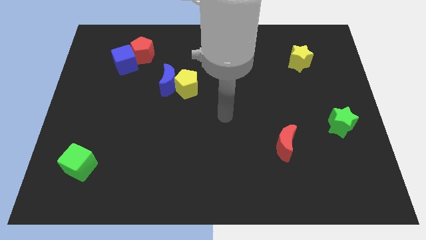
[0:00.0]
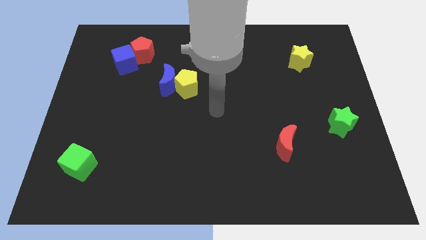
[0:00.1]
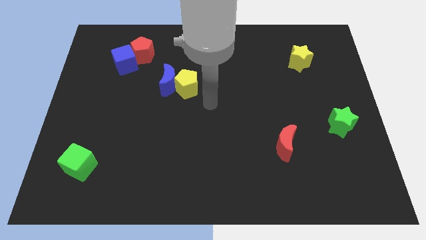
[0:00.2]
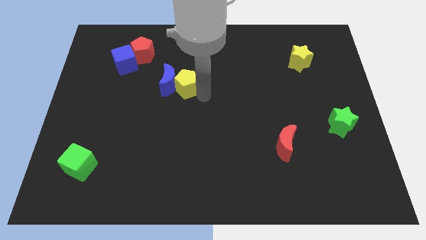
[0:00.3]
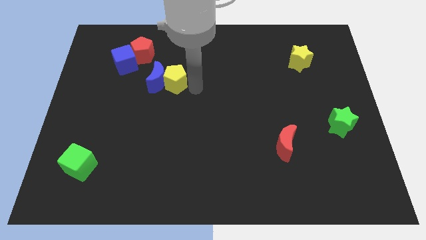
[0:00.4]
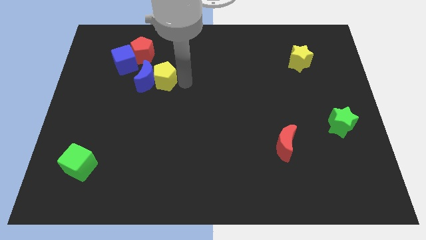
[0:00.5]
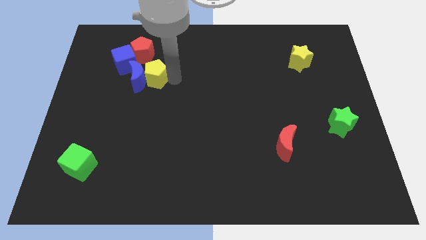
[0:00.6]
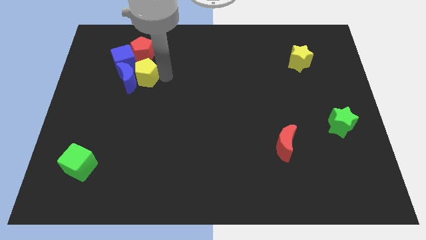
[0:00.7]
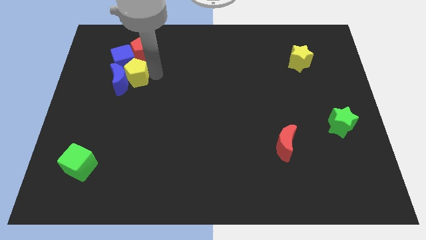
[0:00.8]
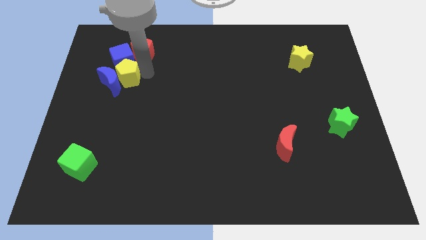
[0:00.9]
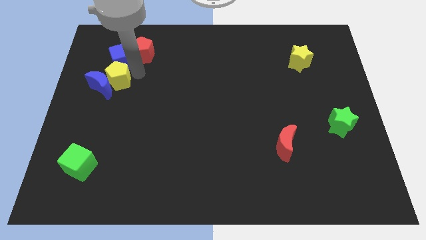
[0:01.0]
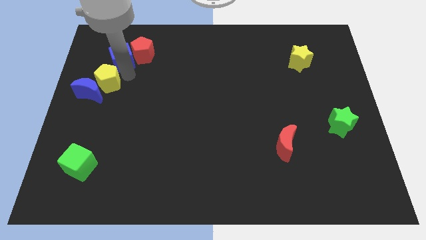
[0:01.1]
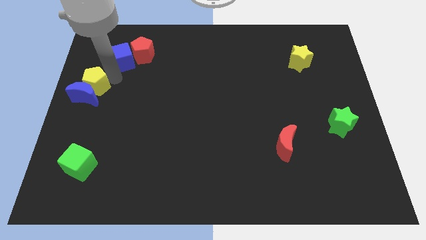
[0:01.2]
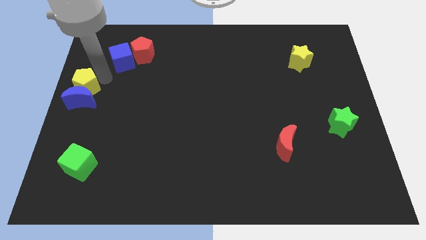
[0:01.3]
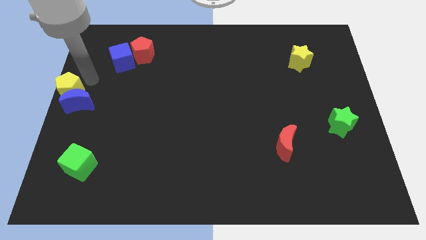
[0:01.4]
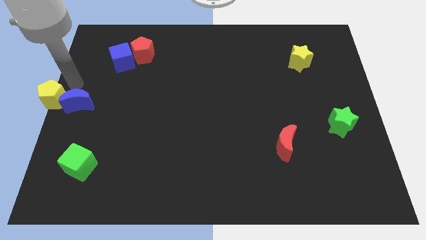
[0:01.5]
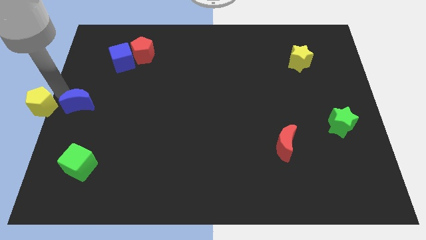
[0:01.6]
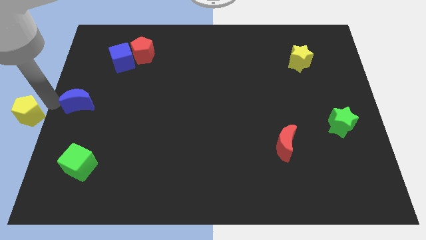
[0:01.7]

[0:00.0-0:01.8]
pull the blue moon apart from the yellow pentagon

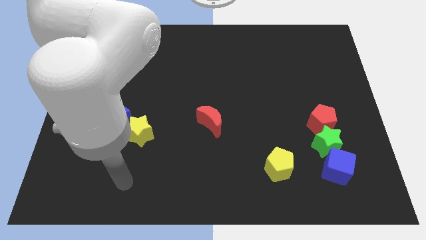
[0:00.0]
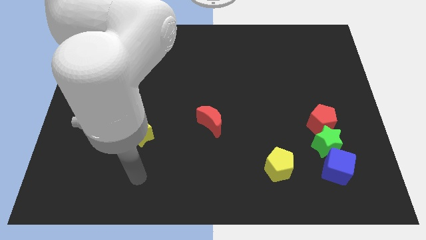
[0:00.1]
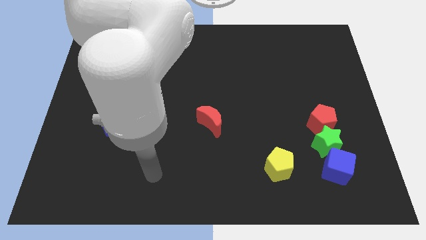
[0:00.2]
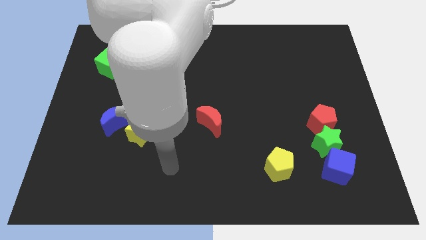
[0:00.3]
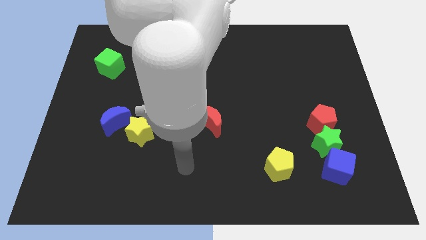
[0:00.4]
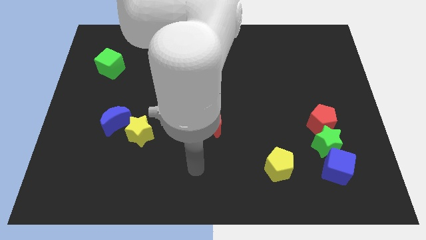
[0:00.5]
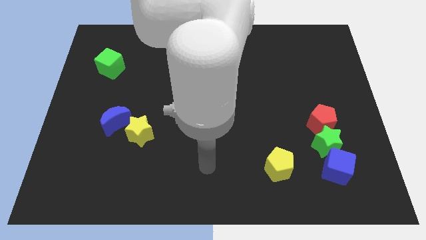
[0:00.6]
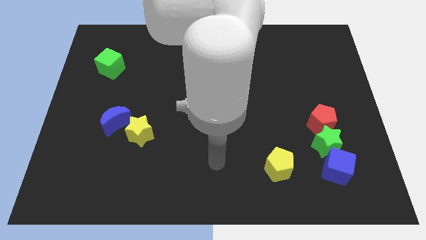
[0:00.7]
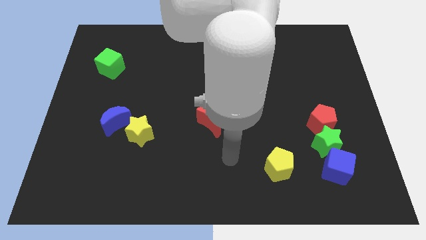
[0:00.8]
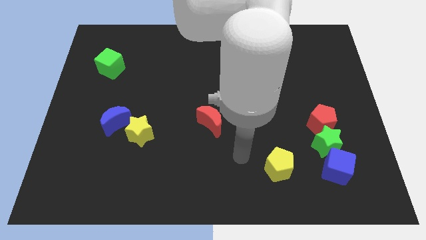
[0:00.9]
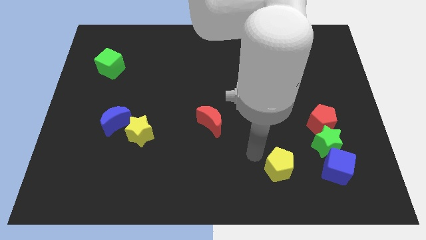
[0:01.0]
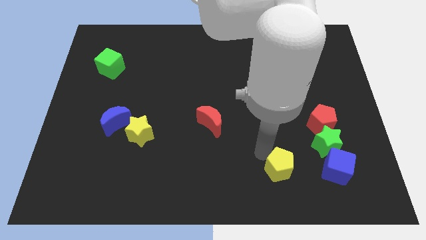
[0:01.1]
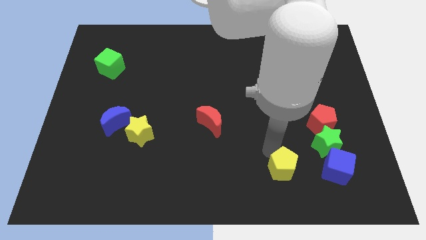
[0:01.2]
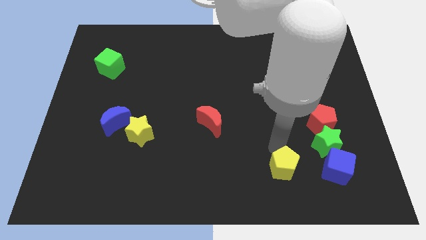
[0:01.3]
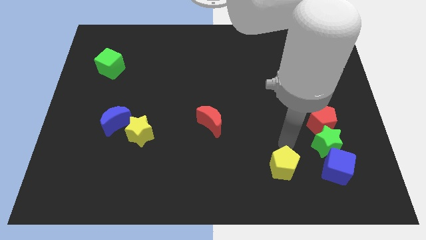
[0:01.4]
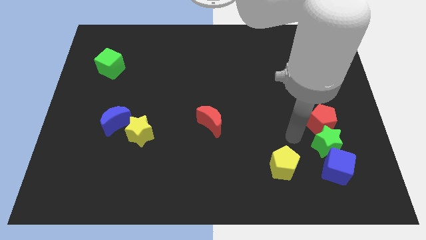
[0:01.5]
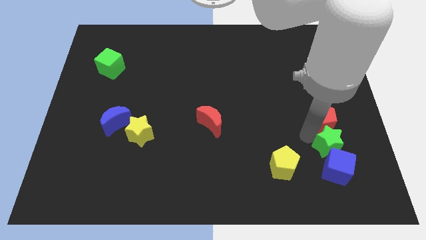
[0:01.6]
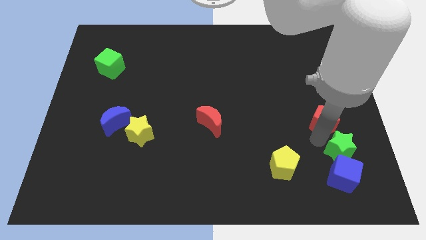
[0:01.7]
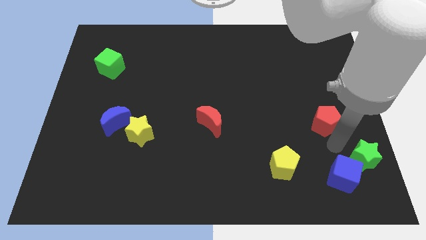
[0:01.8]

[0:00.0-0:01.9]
pull the red pentagon apart from the green star

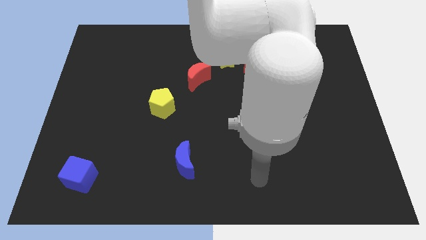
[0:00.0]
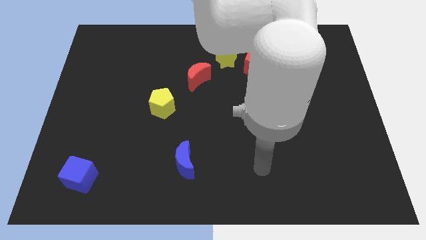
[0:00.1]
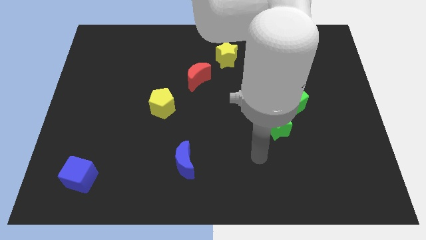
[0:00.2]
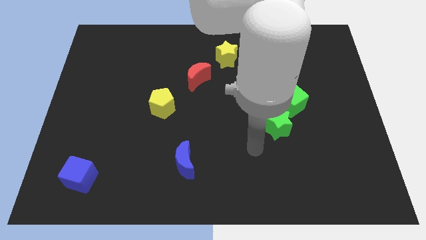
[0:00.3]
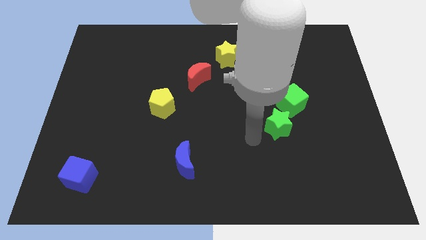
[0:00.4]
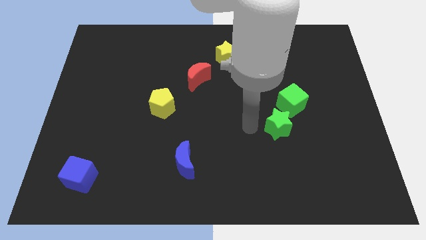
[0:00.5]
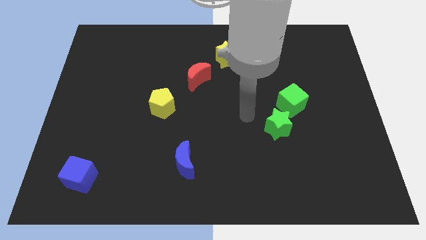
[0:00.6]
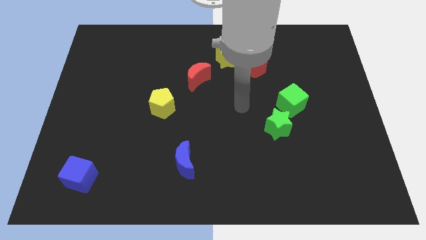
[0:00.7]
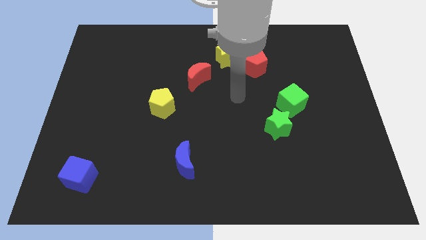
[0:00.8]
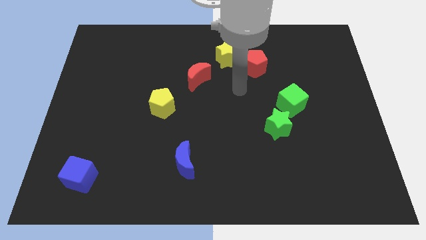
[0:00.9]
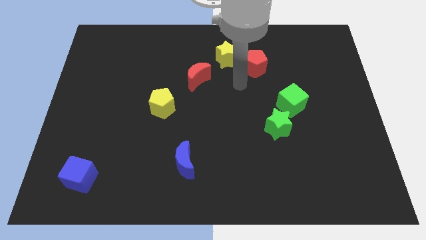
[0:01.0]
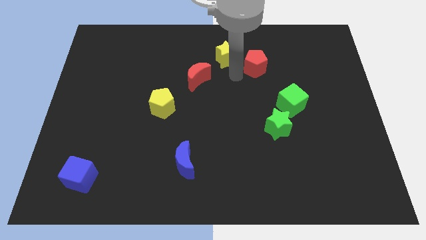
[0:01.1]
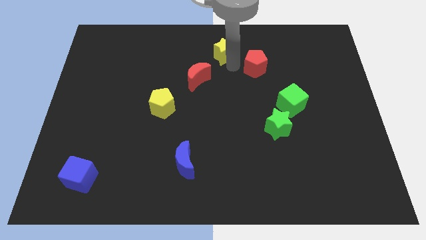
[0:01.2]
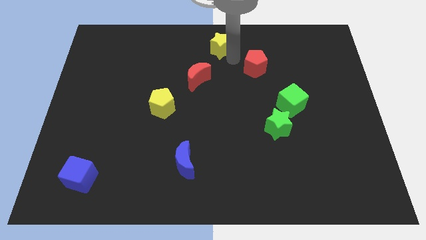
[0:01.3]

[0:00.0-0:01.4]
move the red pentagon away from the yellow star

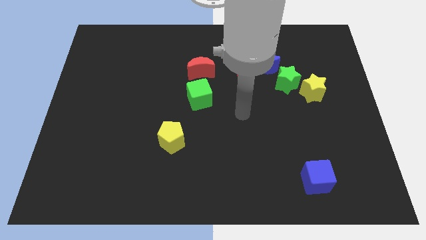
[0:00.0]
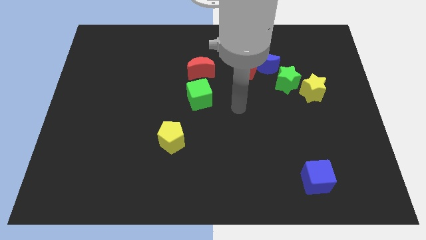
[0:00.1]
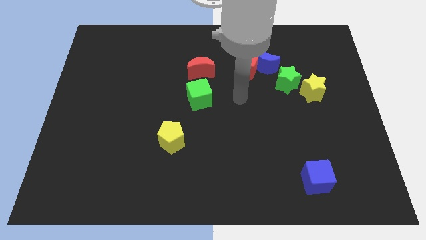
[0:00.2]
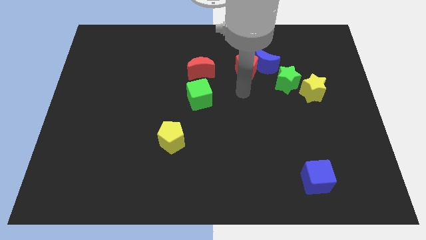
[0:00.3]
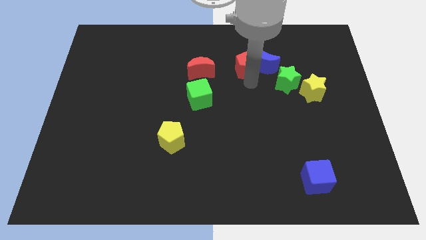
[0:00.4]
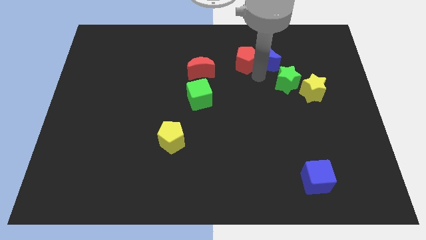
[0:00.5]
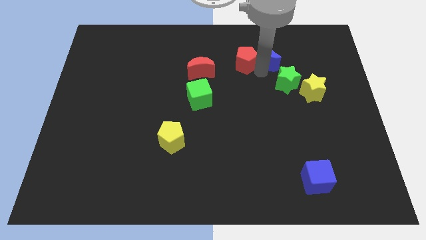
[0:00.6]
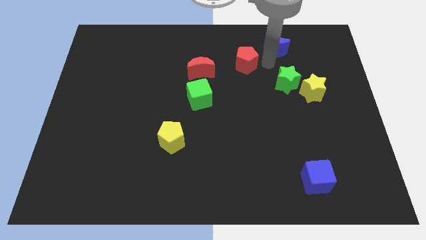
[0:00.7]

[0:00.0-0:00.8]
separate the red pentagon from the blue moon

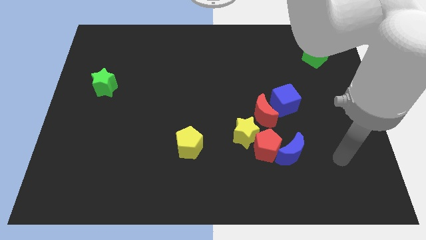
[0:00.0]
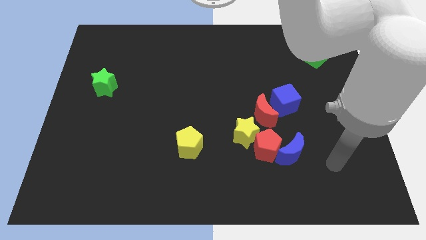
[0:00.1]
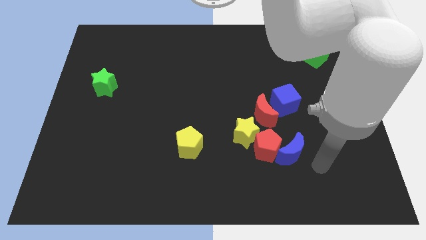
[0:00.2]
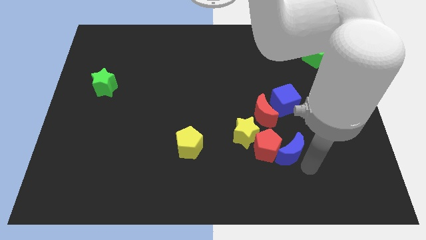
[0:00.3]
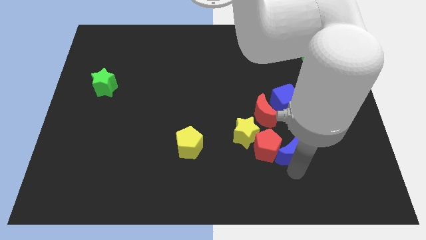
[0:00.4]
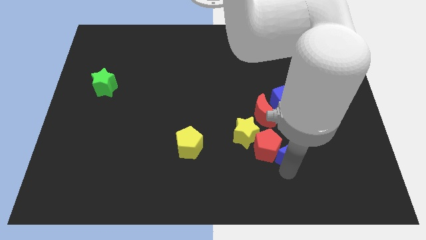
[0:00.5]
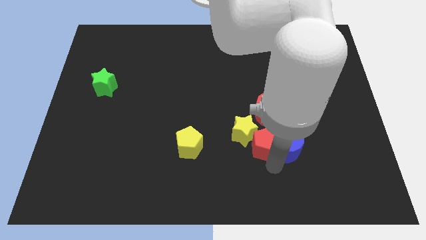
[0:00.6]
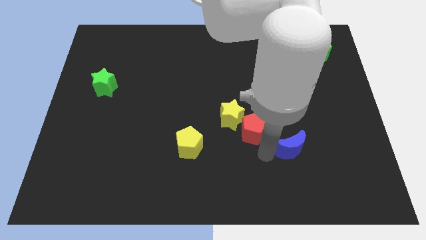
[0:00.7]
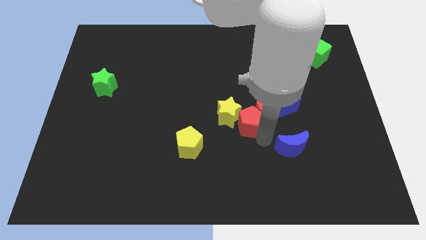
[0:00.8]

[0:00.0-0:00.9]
separate the blue moon from the red pentagon

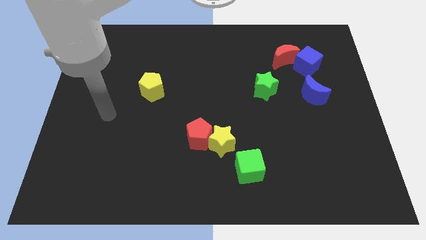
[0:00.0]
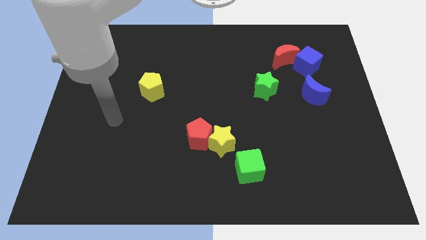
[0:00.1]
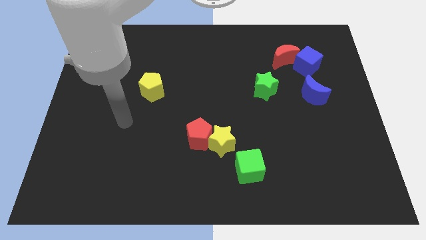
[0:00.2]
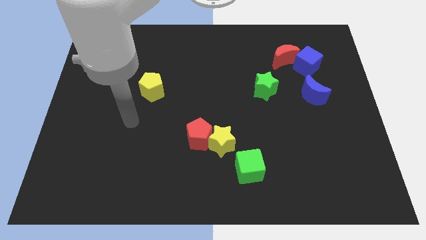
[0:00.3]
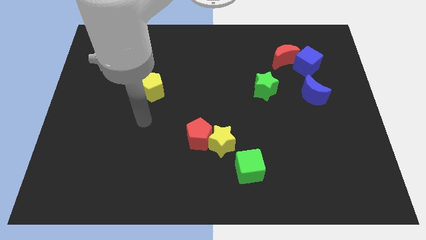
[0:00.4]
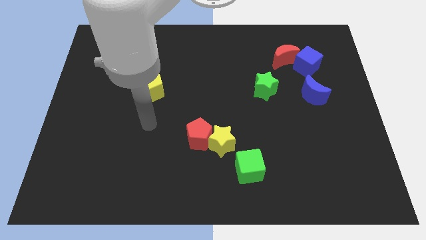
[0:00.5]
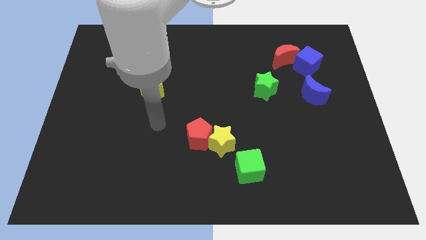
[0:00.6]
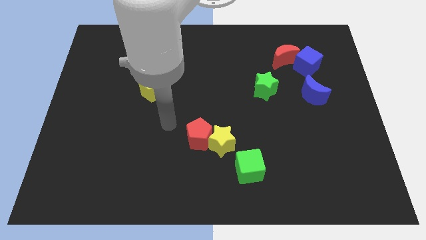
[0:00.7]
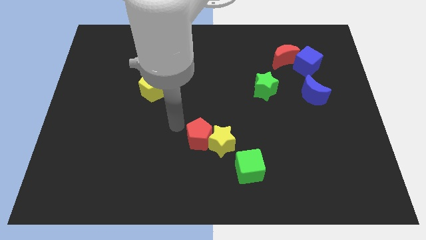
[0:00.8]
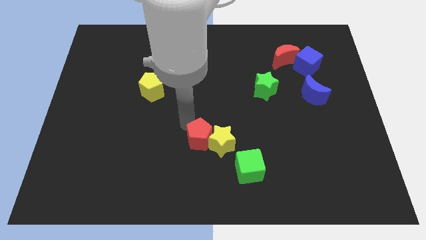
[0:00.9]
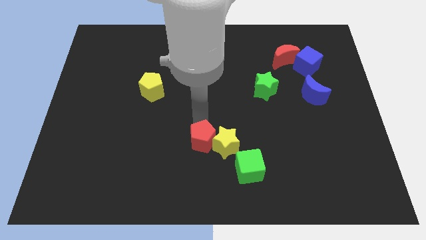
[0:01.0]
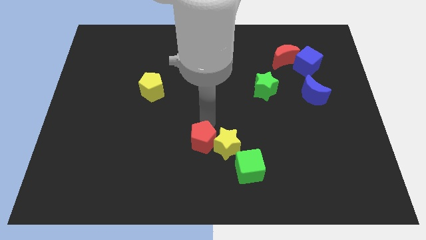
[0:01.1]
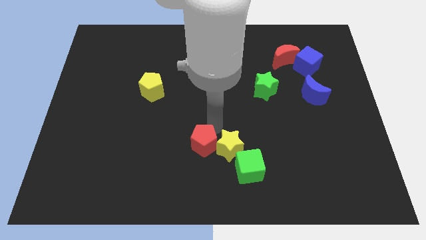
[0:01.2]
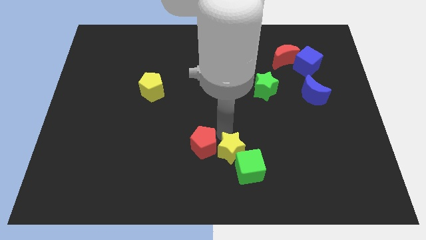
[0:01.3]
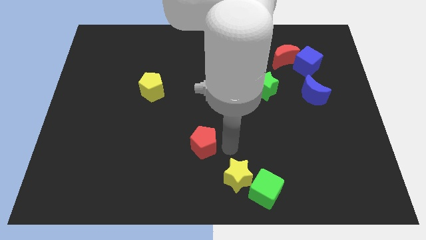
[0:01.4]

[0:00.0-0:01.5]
separate the red pentagon from the yellow star

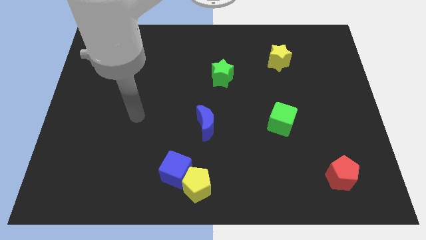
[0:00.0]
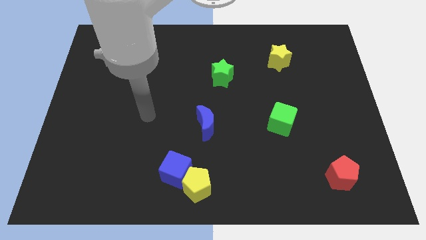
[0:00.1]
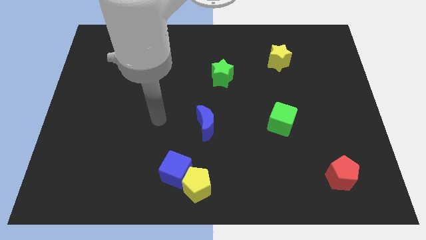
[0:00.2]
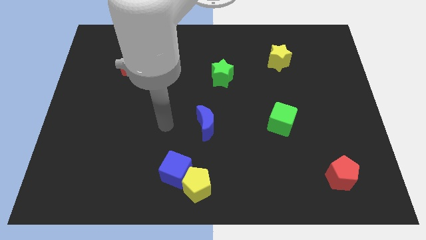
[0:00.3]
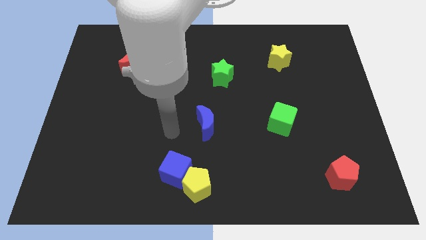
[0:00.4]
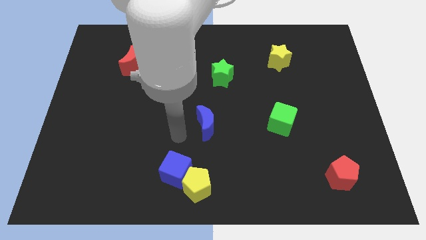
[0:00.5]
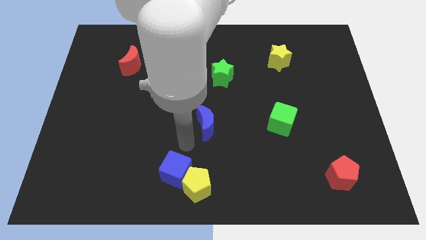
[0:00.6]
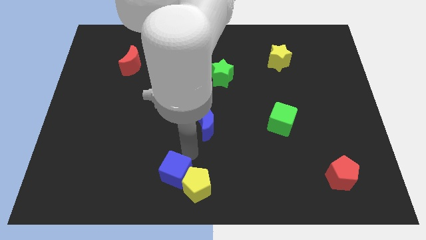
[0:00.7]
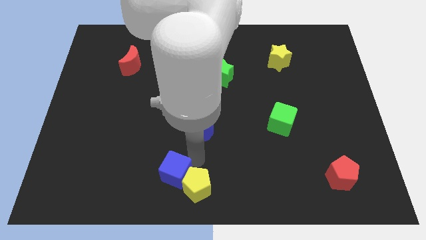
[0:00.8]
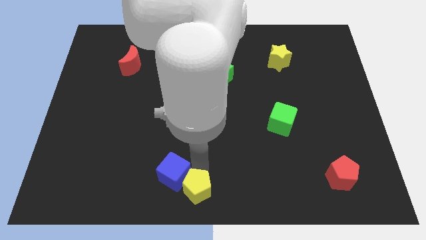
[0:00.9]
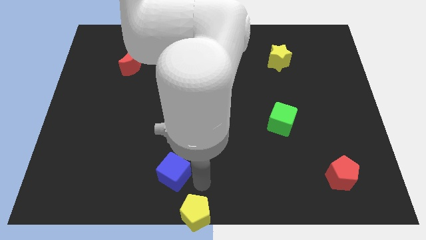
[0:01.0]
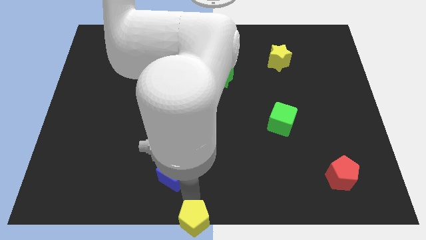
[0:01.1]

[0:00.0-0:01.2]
pull the blue cube apart from the yellow pentagon
